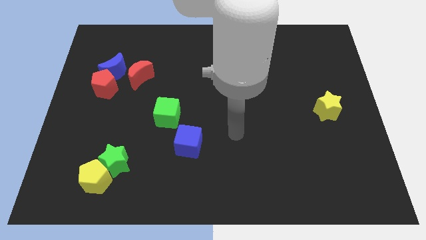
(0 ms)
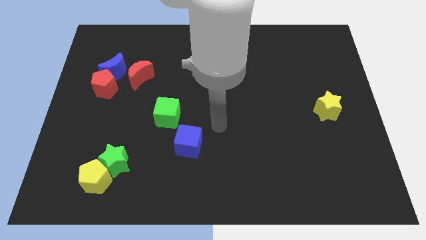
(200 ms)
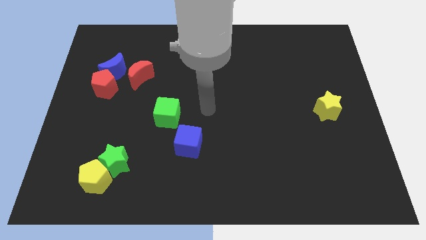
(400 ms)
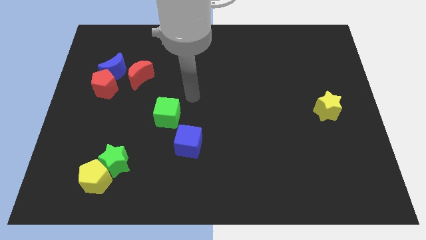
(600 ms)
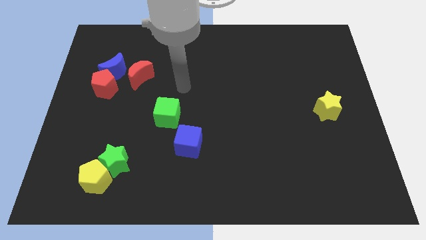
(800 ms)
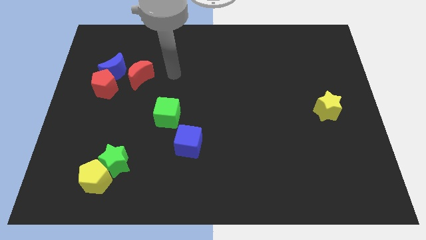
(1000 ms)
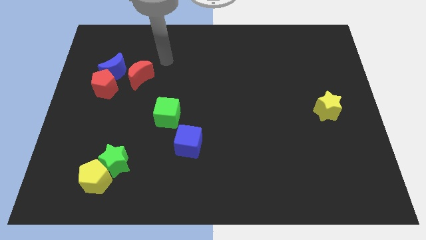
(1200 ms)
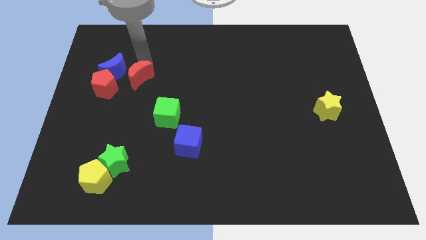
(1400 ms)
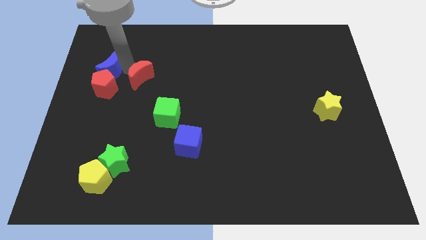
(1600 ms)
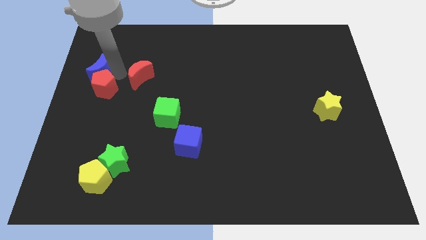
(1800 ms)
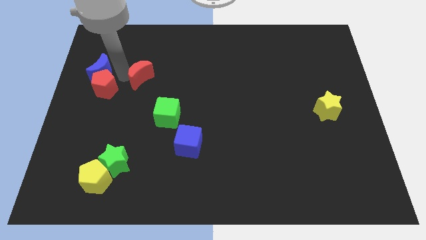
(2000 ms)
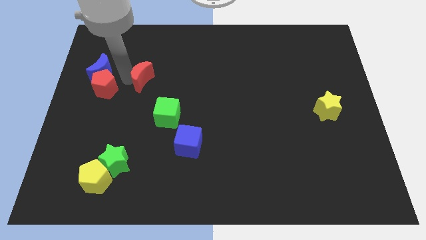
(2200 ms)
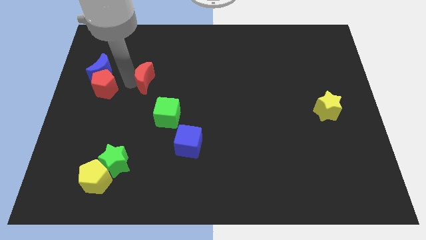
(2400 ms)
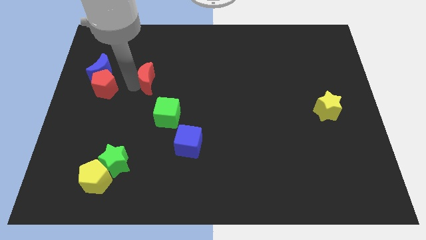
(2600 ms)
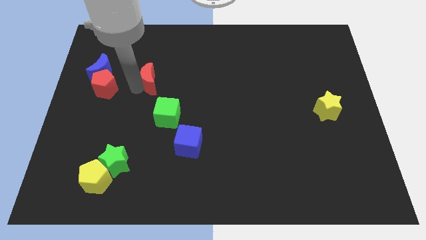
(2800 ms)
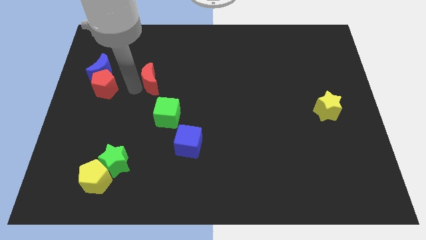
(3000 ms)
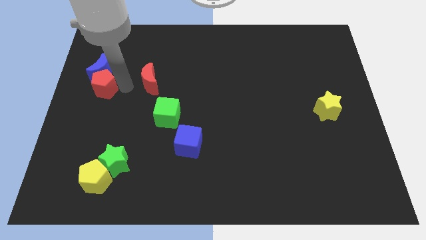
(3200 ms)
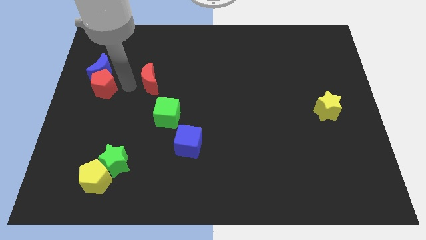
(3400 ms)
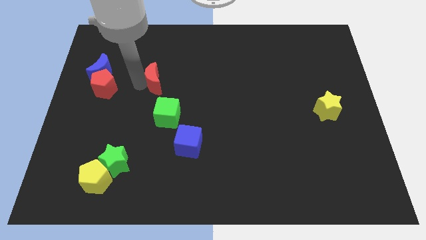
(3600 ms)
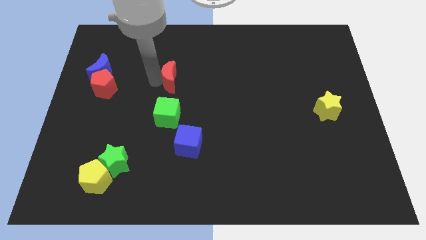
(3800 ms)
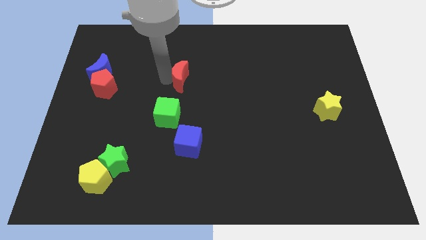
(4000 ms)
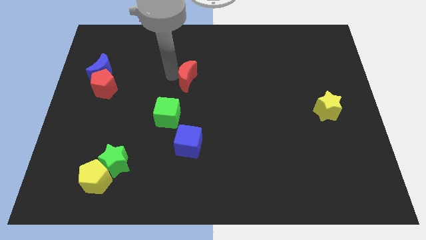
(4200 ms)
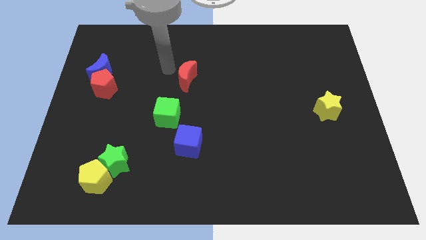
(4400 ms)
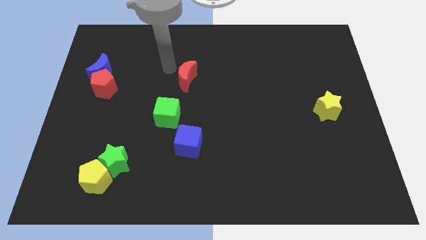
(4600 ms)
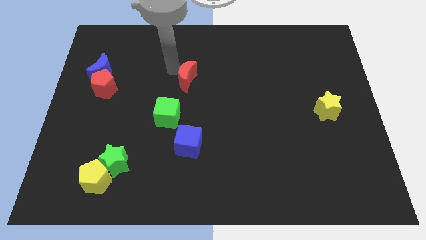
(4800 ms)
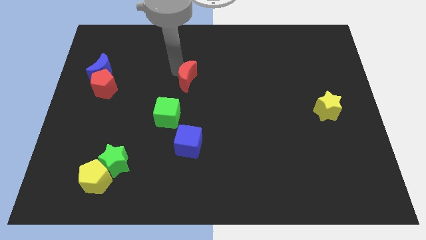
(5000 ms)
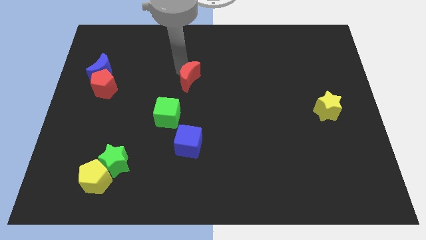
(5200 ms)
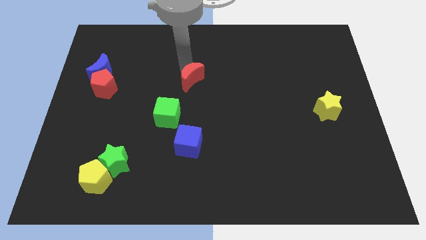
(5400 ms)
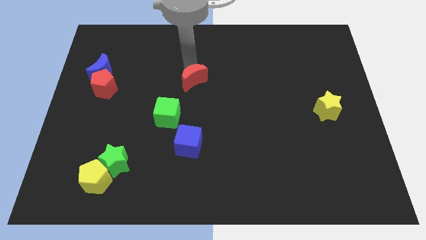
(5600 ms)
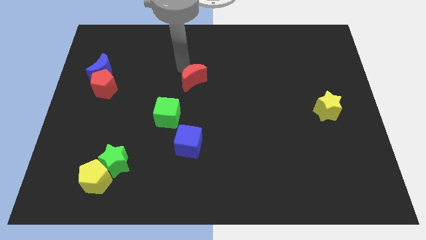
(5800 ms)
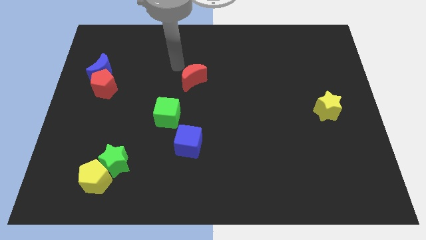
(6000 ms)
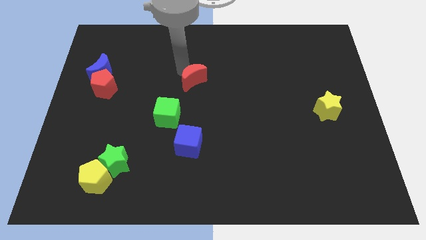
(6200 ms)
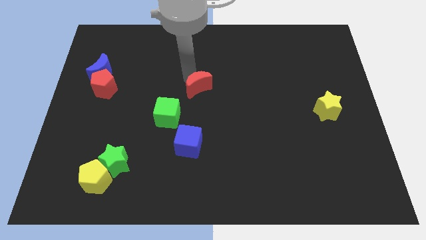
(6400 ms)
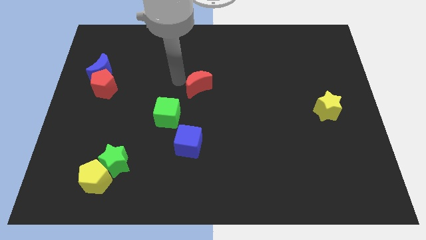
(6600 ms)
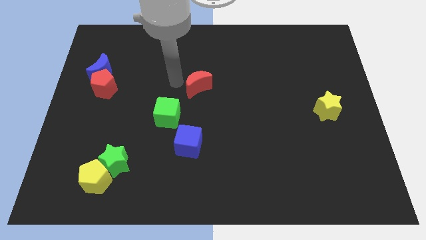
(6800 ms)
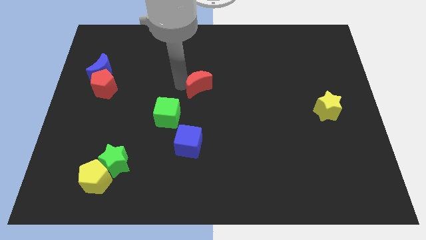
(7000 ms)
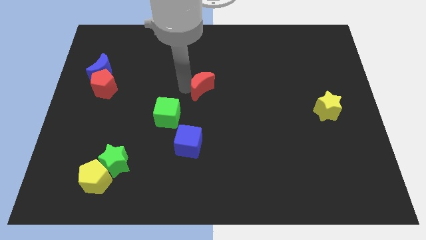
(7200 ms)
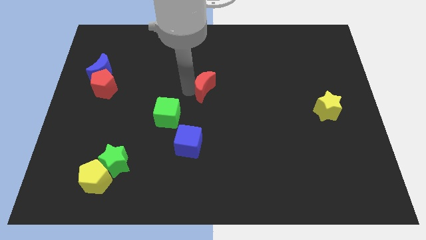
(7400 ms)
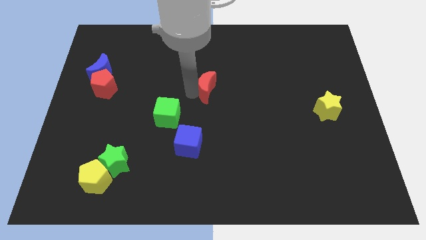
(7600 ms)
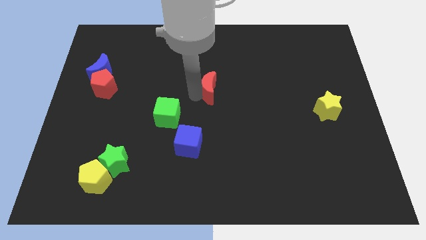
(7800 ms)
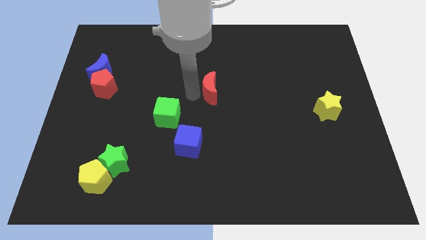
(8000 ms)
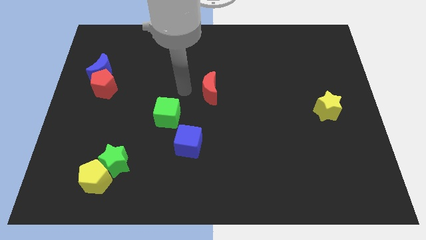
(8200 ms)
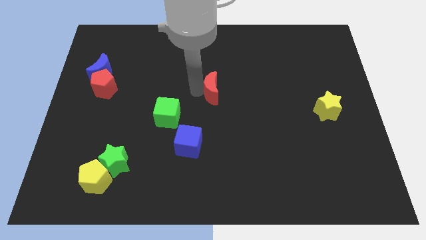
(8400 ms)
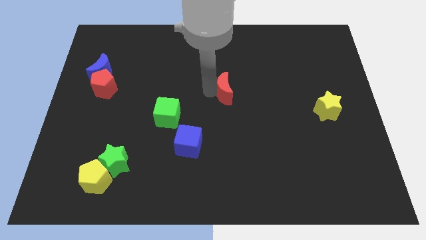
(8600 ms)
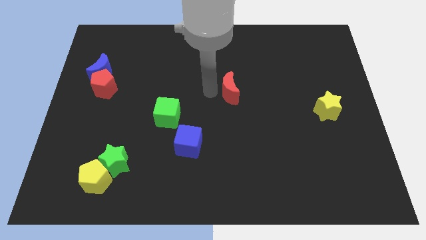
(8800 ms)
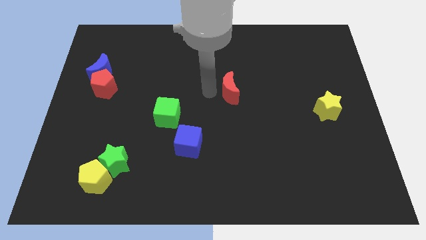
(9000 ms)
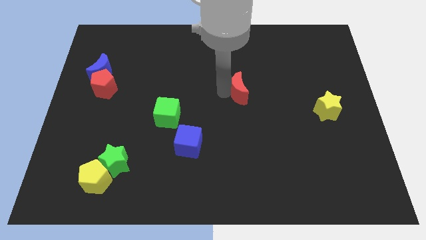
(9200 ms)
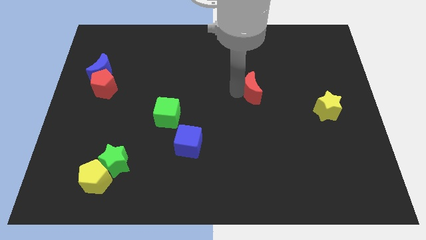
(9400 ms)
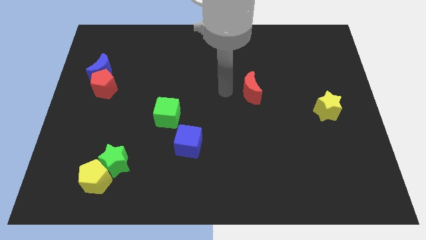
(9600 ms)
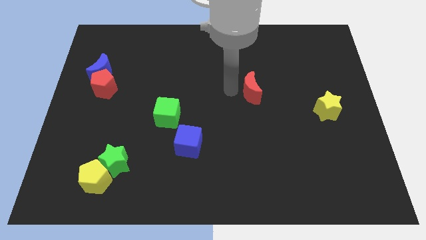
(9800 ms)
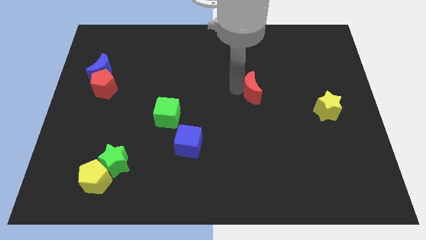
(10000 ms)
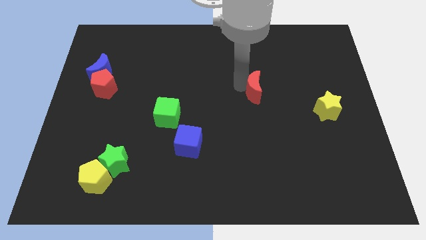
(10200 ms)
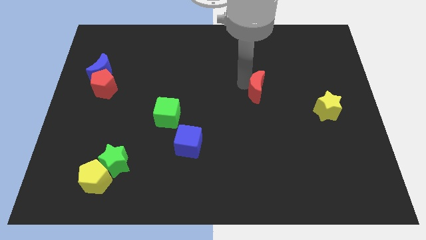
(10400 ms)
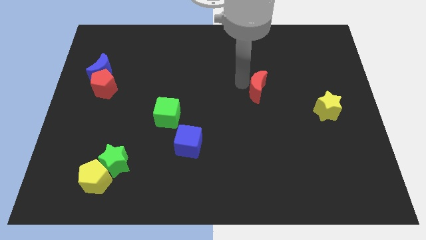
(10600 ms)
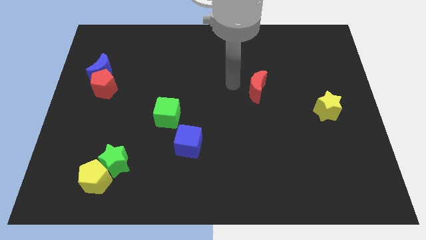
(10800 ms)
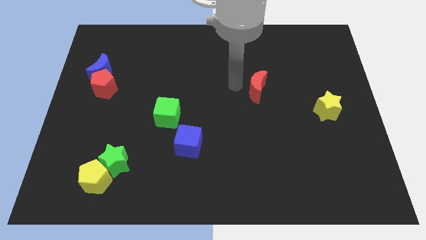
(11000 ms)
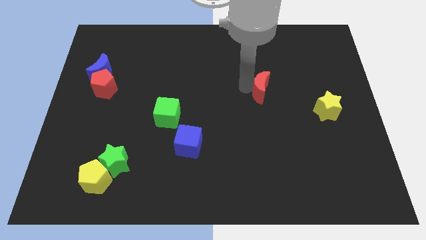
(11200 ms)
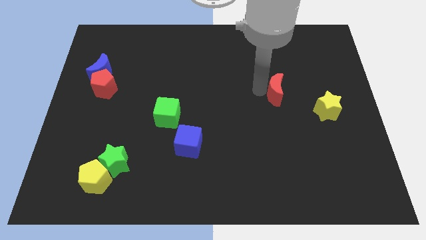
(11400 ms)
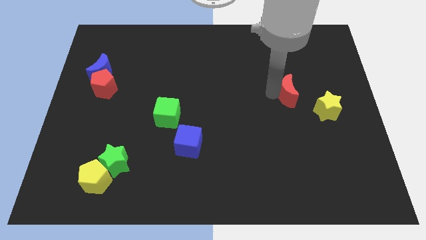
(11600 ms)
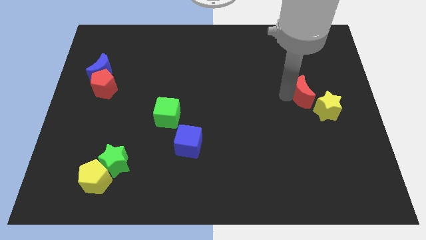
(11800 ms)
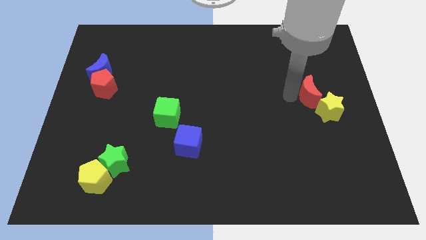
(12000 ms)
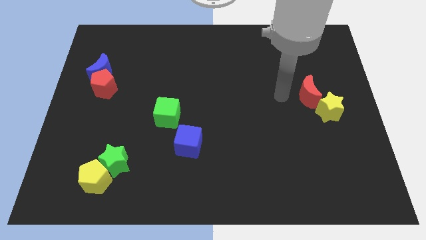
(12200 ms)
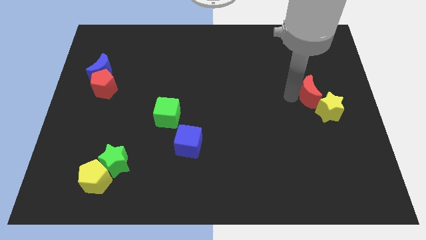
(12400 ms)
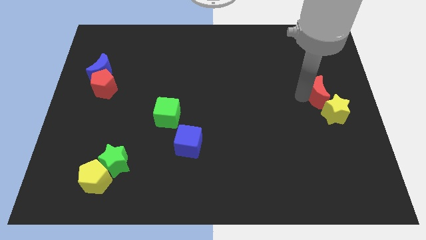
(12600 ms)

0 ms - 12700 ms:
push the red moon to the center right

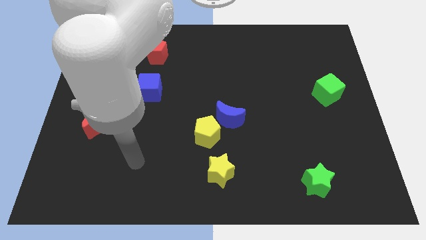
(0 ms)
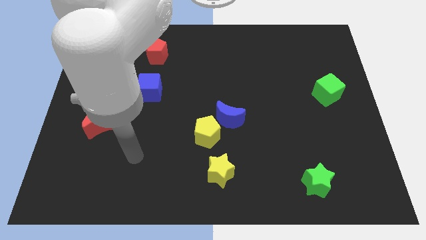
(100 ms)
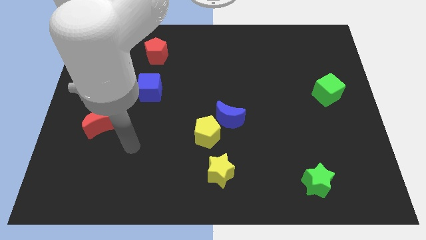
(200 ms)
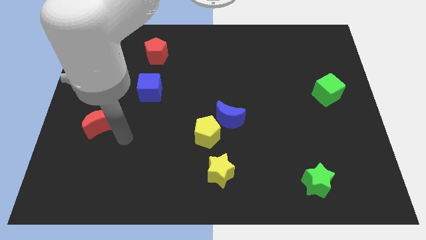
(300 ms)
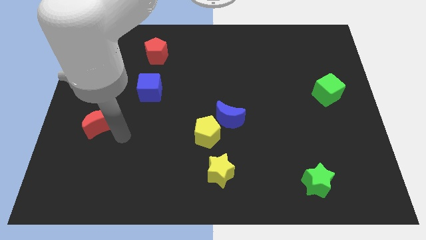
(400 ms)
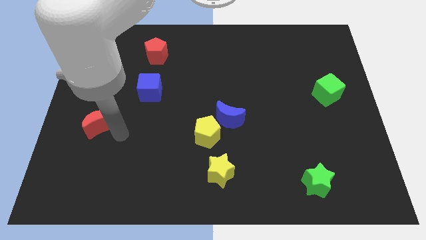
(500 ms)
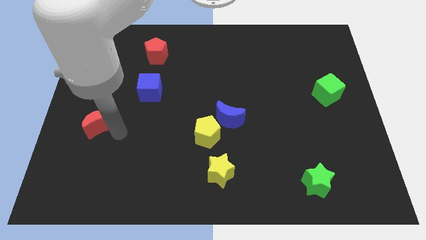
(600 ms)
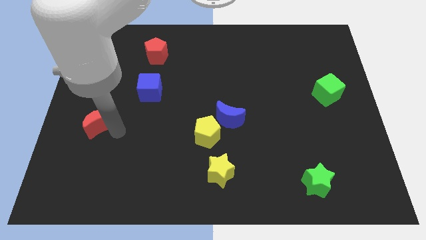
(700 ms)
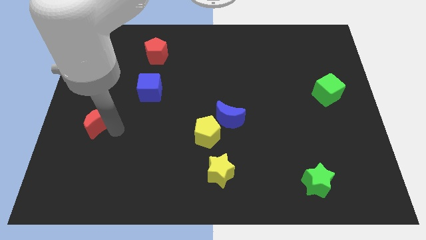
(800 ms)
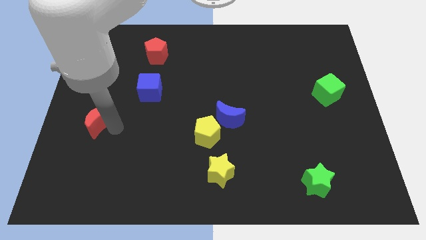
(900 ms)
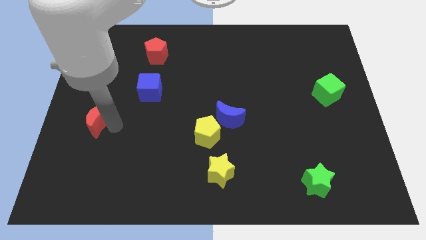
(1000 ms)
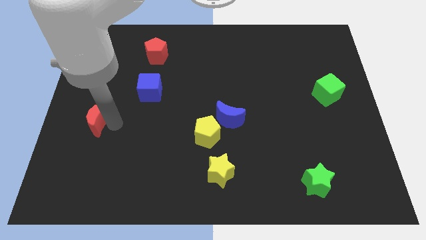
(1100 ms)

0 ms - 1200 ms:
push the red moon to the left side
